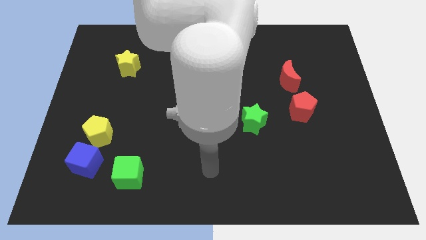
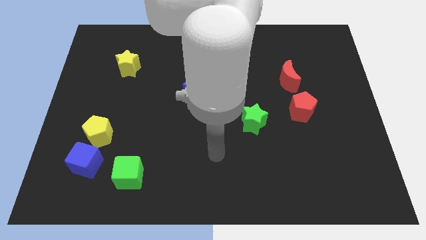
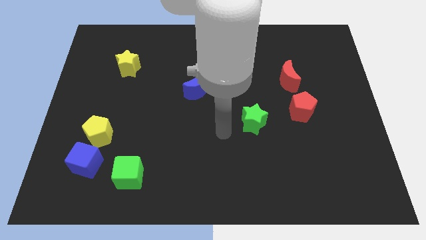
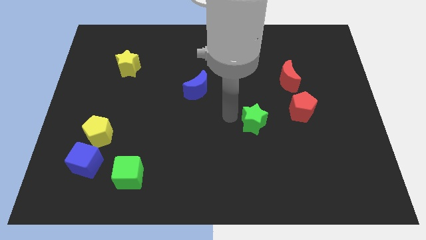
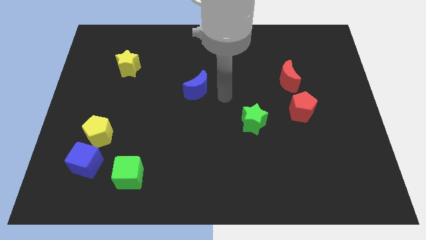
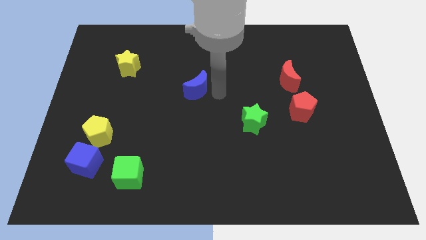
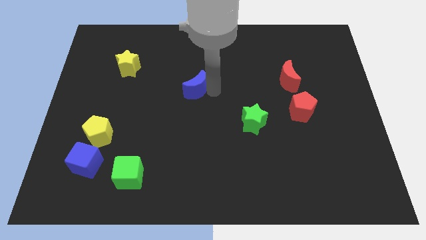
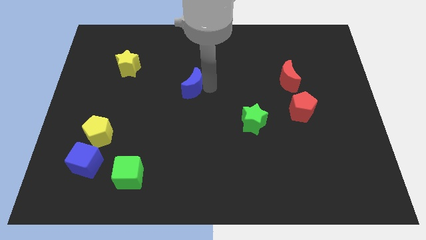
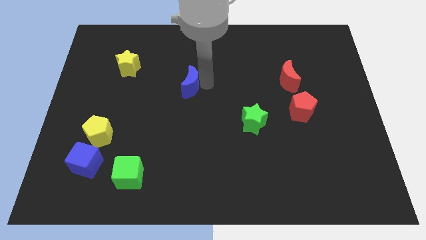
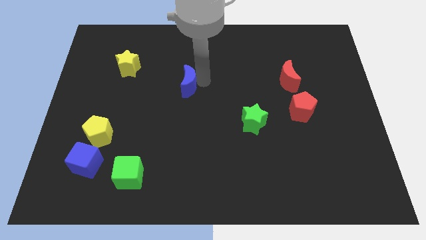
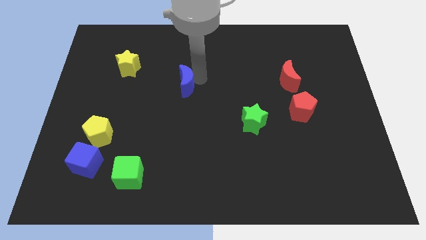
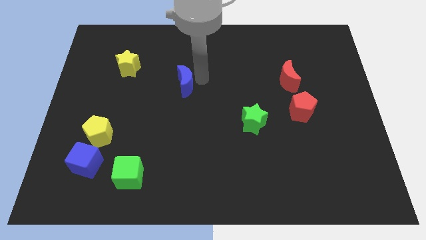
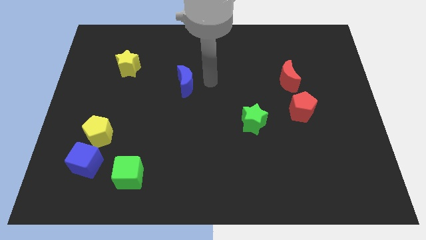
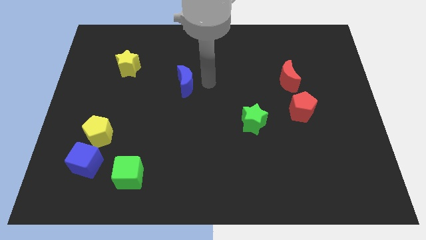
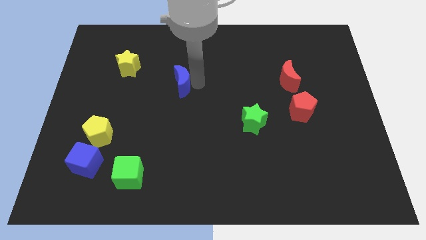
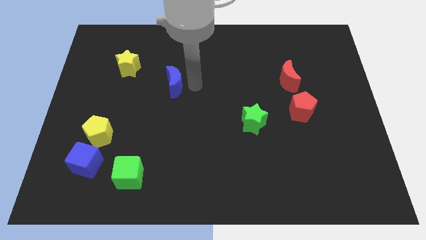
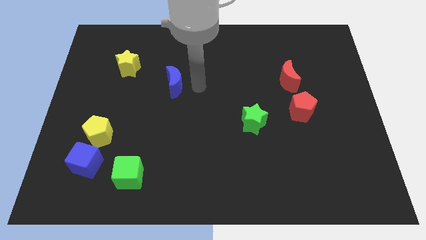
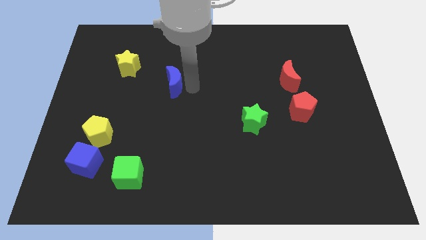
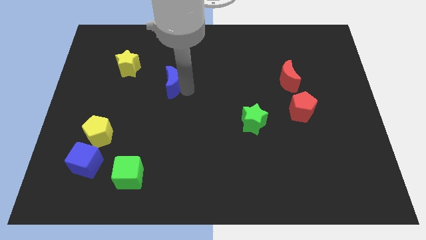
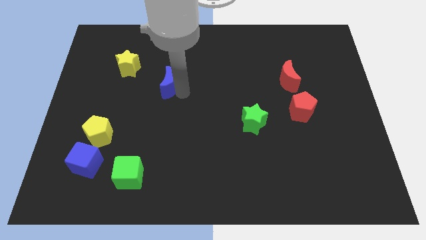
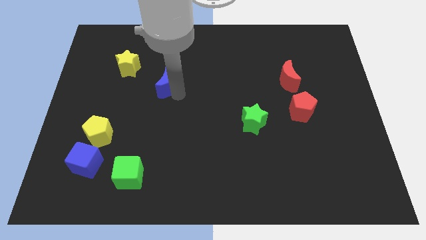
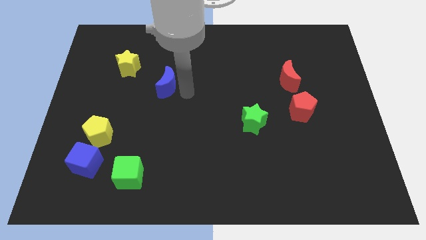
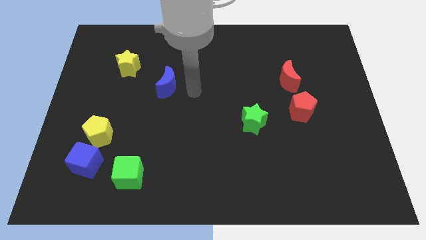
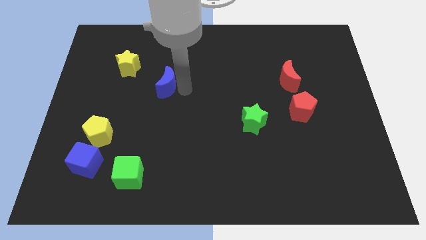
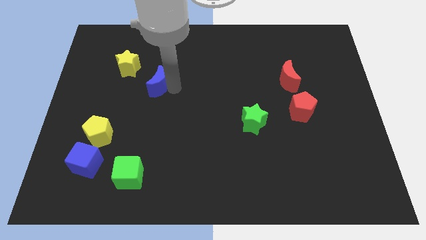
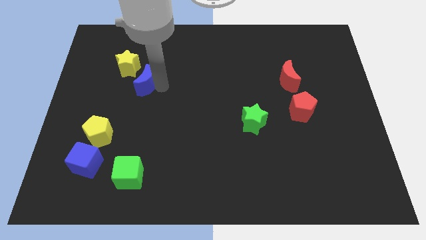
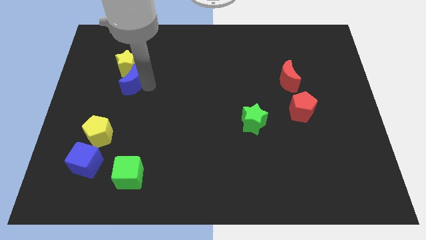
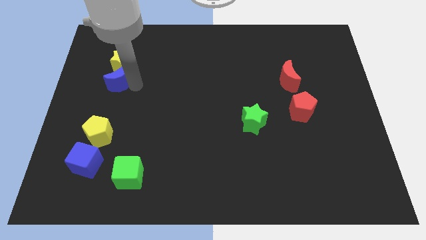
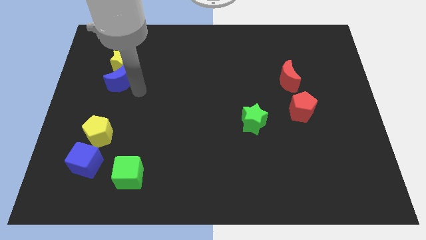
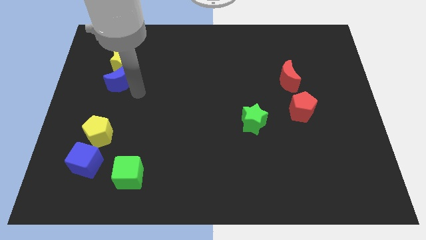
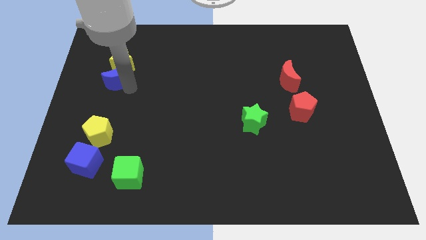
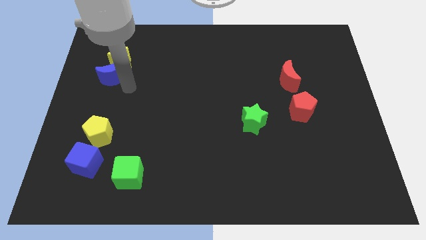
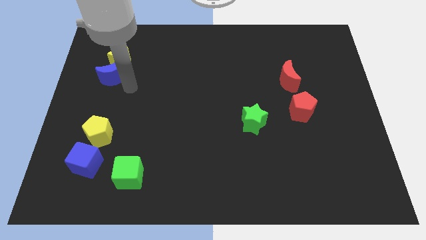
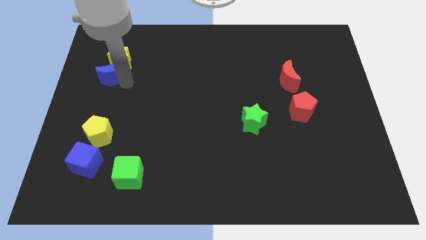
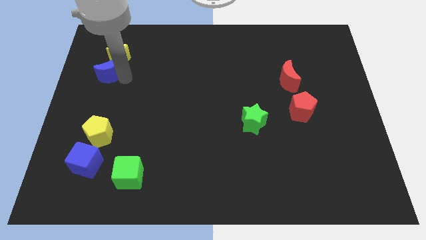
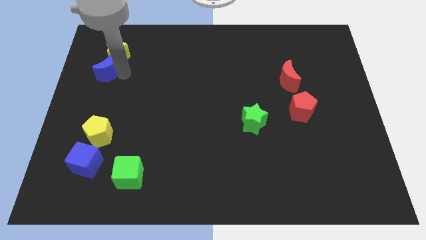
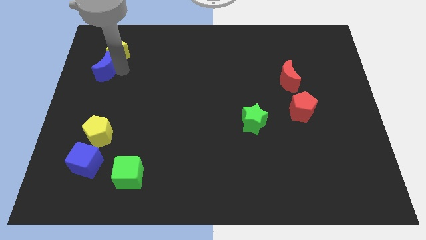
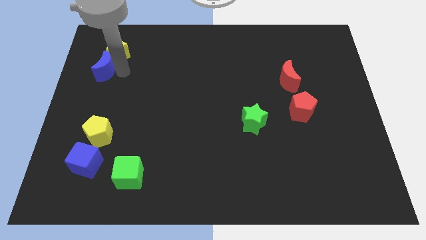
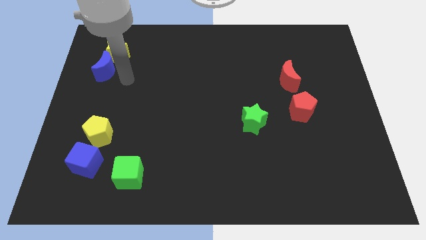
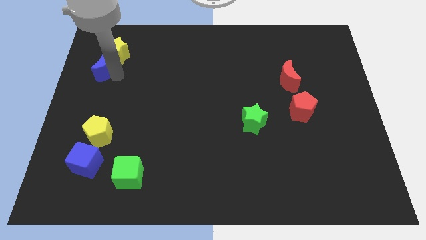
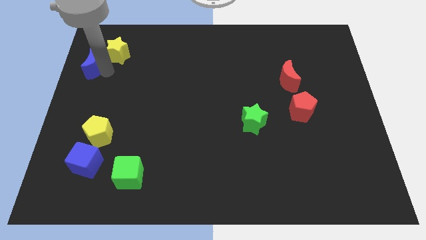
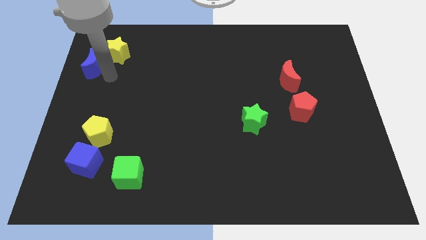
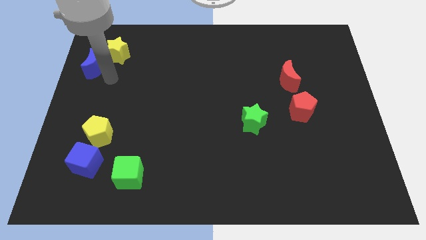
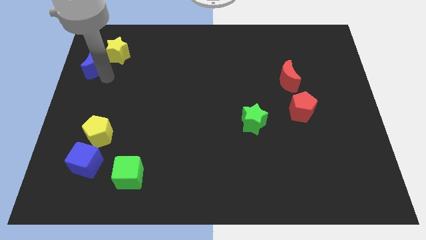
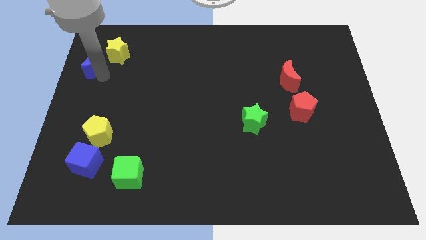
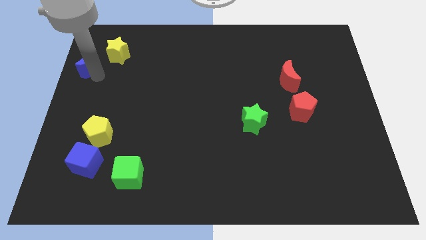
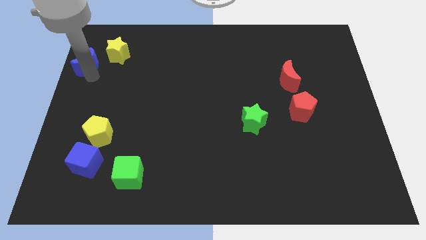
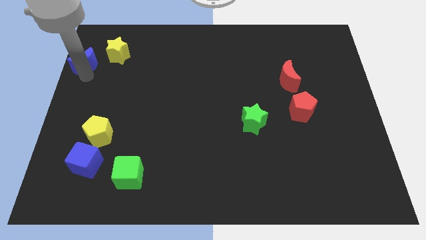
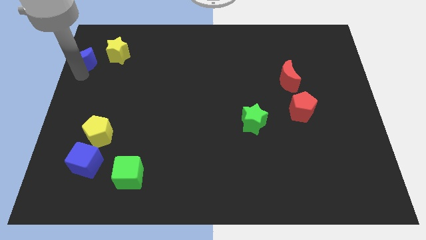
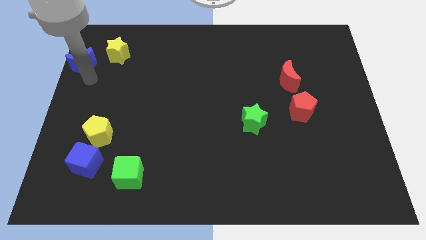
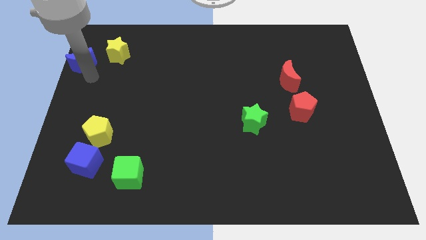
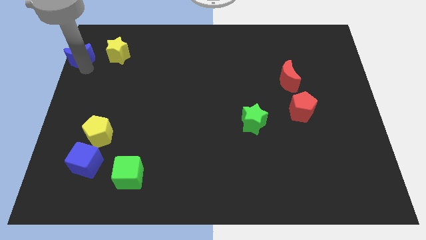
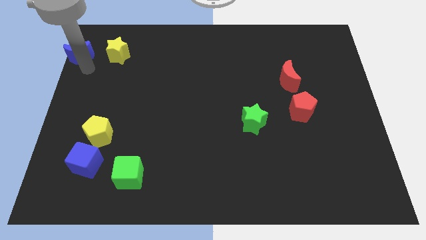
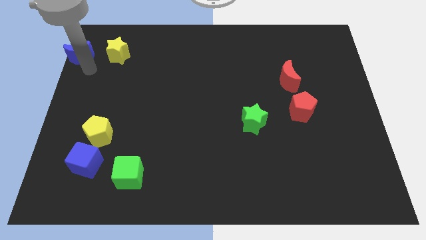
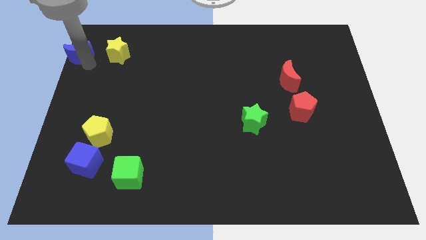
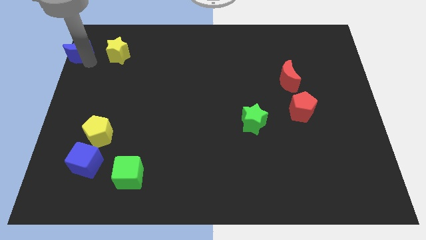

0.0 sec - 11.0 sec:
push the blue moon to the top left of the board
